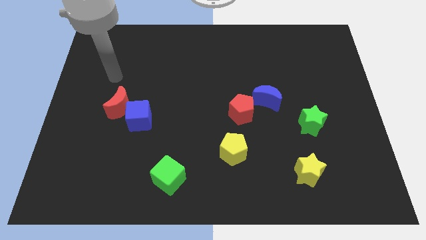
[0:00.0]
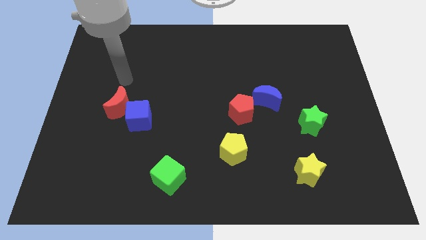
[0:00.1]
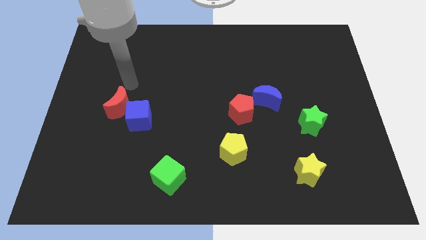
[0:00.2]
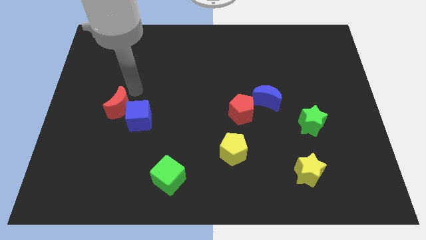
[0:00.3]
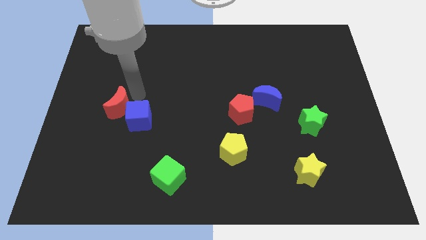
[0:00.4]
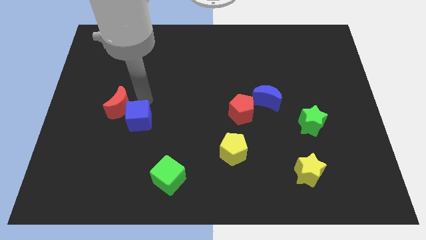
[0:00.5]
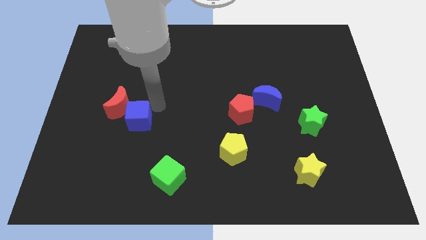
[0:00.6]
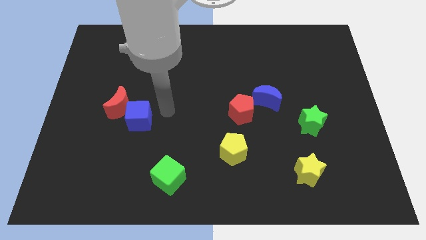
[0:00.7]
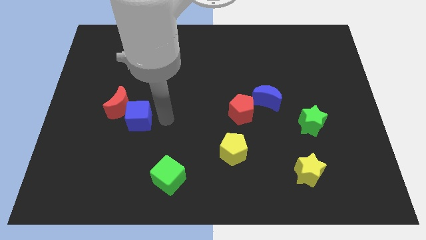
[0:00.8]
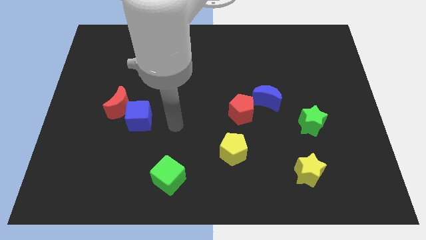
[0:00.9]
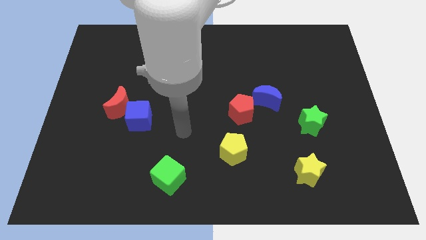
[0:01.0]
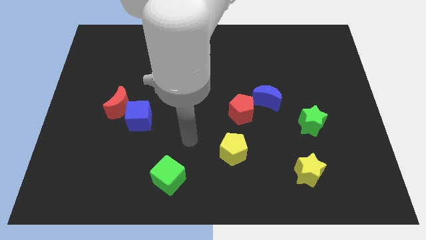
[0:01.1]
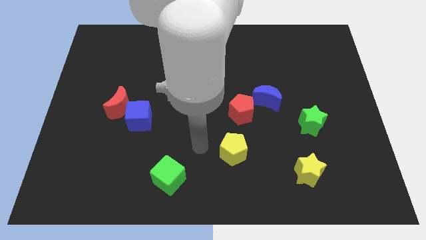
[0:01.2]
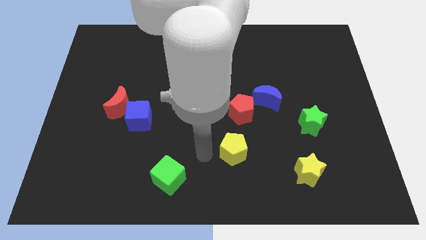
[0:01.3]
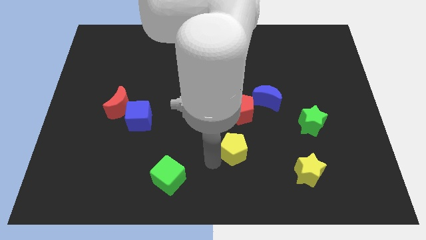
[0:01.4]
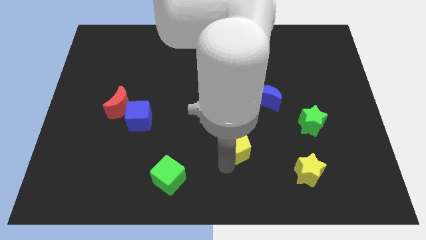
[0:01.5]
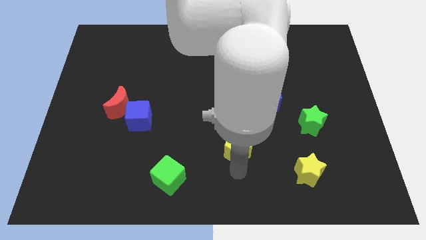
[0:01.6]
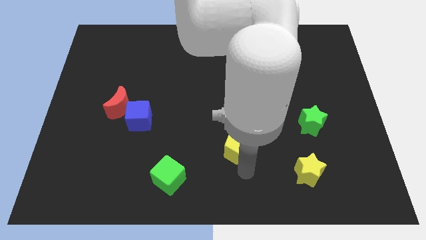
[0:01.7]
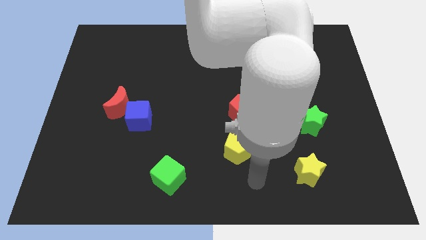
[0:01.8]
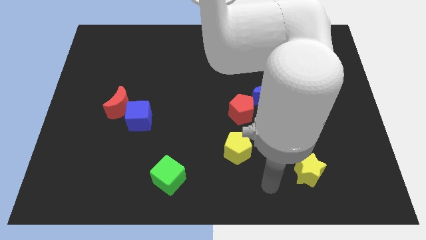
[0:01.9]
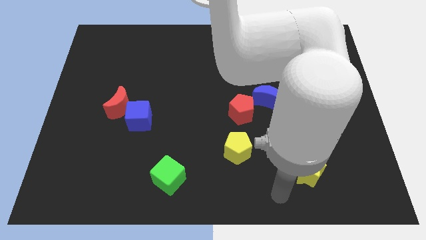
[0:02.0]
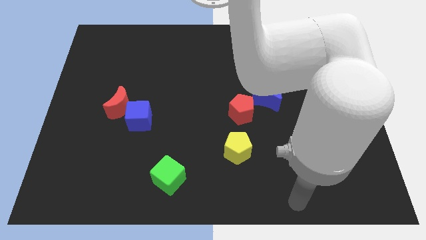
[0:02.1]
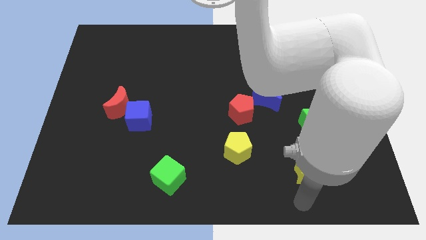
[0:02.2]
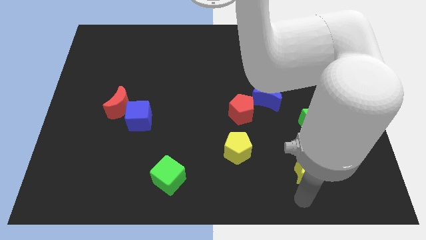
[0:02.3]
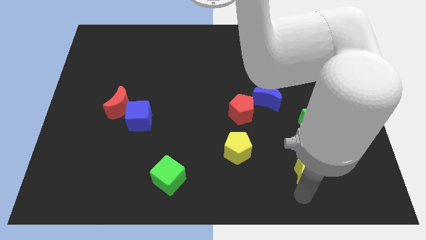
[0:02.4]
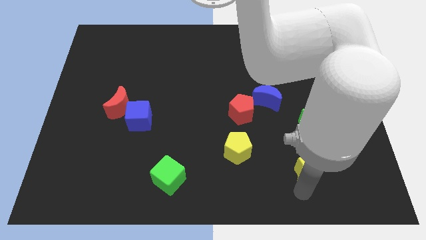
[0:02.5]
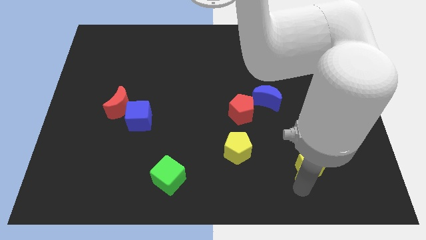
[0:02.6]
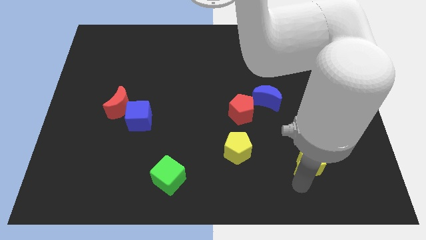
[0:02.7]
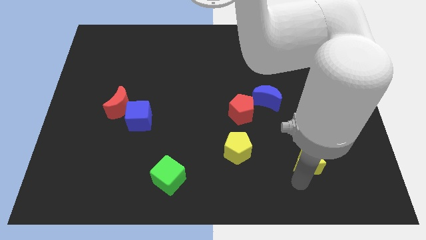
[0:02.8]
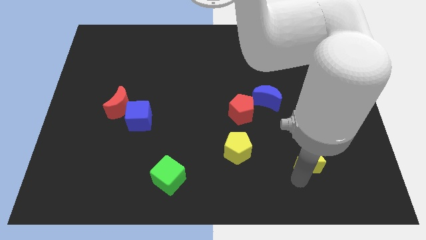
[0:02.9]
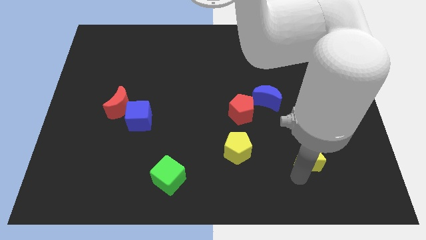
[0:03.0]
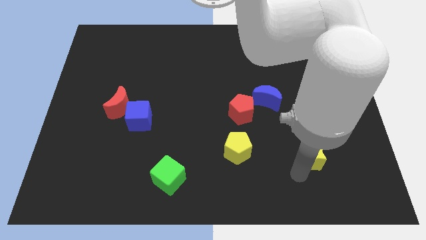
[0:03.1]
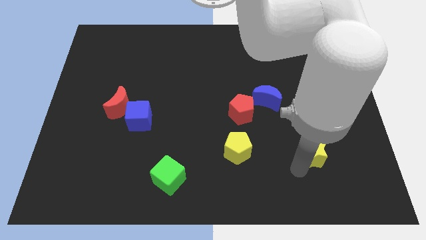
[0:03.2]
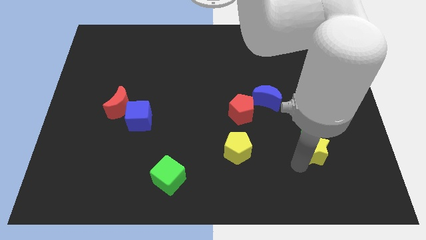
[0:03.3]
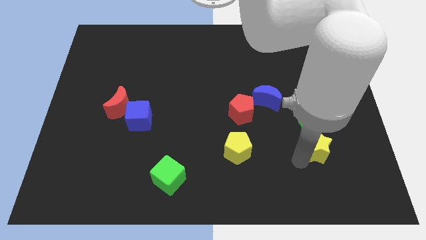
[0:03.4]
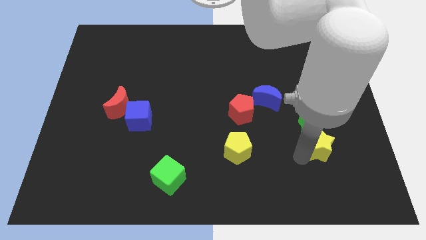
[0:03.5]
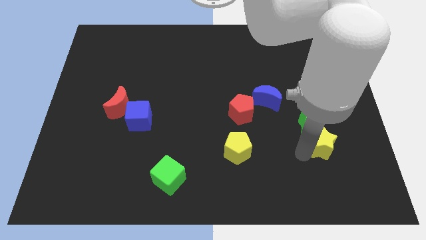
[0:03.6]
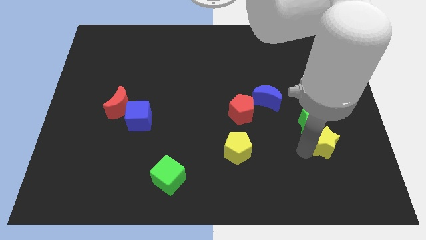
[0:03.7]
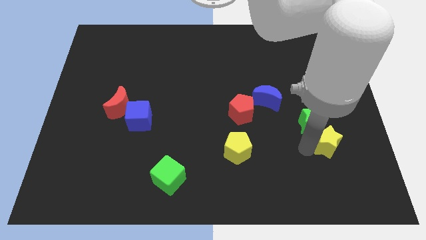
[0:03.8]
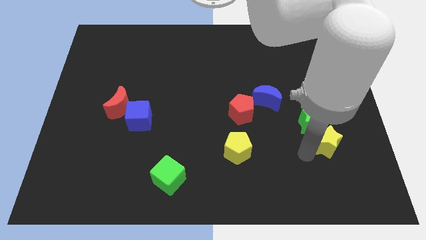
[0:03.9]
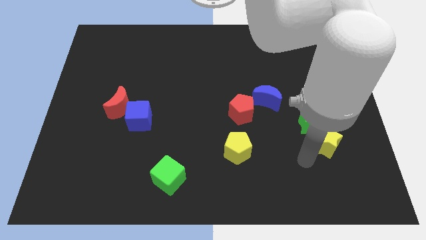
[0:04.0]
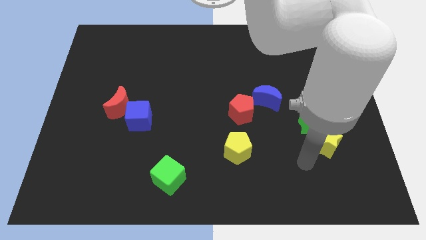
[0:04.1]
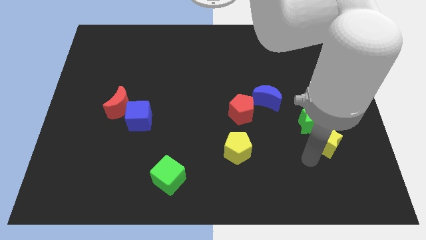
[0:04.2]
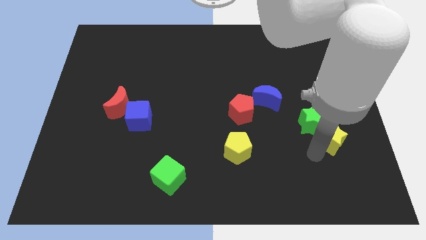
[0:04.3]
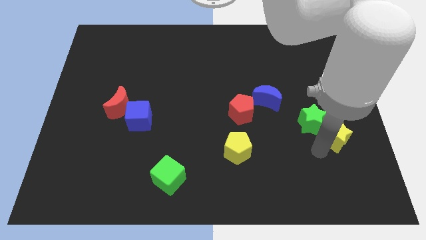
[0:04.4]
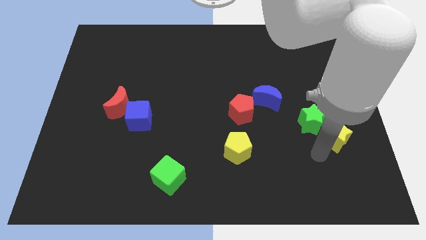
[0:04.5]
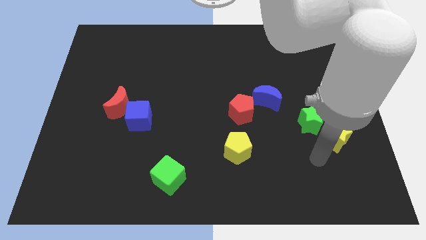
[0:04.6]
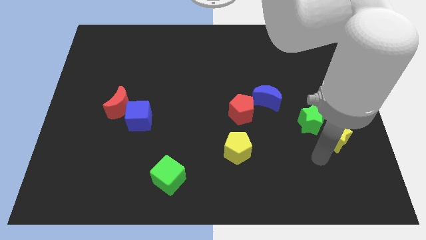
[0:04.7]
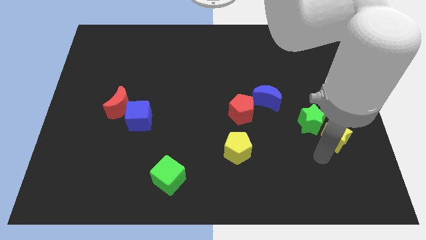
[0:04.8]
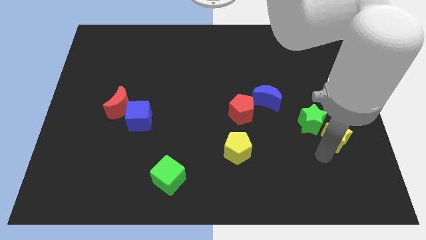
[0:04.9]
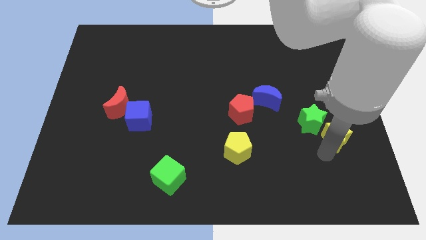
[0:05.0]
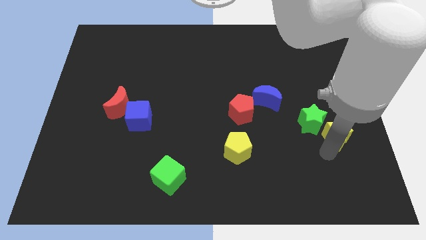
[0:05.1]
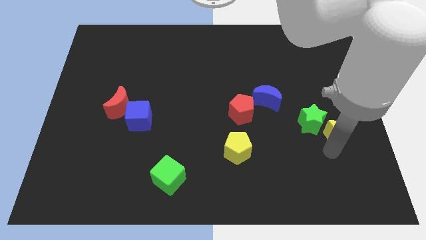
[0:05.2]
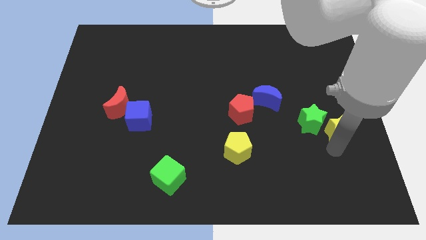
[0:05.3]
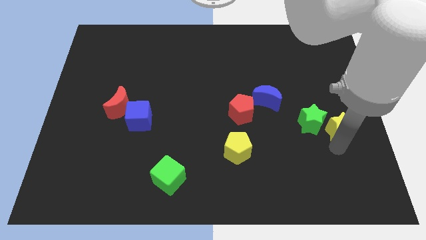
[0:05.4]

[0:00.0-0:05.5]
put the yellow star to the right side of the board

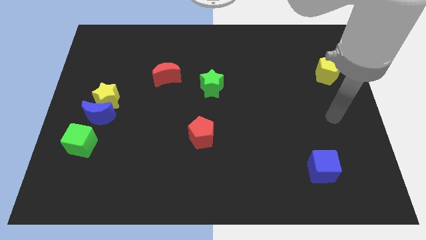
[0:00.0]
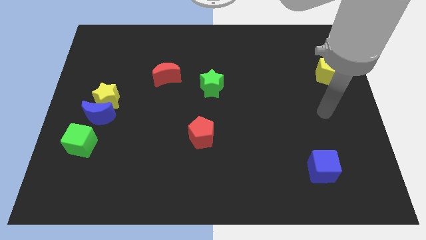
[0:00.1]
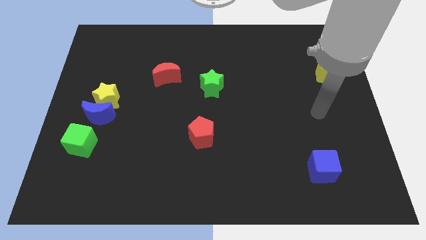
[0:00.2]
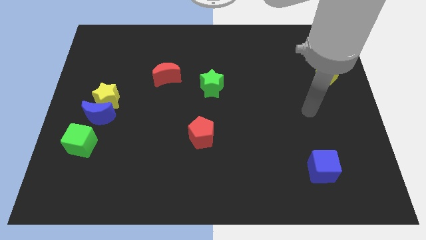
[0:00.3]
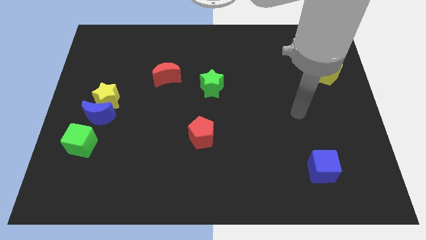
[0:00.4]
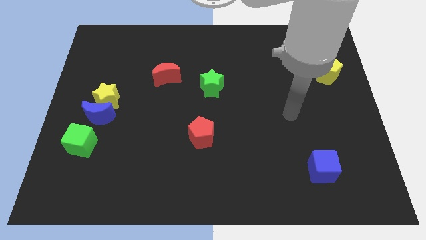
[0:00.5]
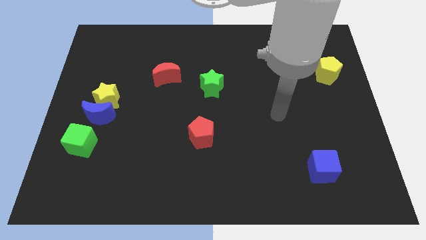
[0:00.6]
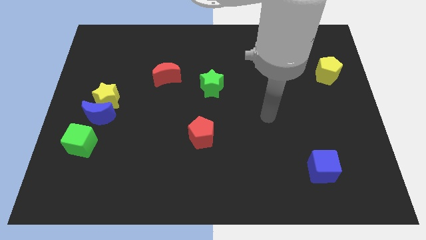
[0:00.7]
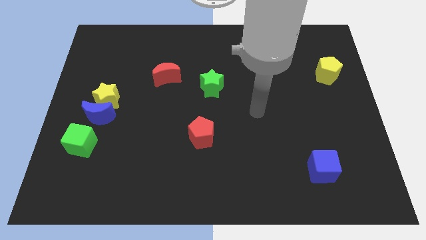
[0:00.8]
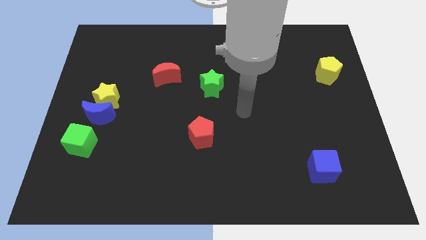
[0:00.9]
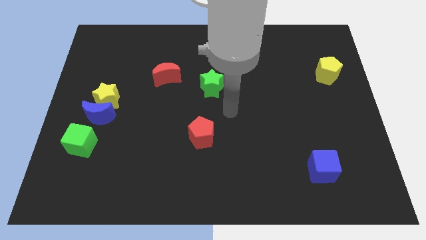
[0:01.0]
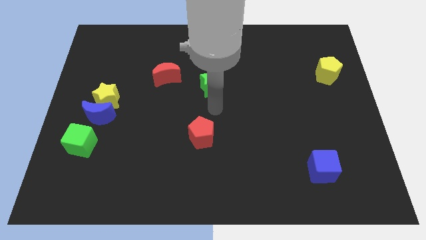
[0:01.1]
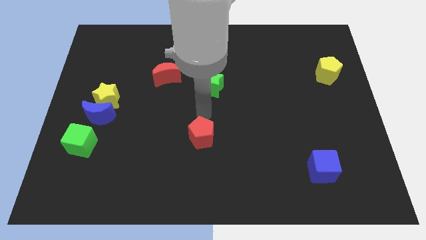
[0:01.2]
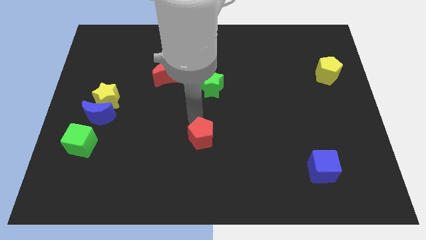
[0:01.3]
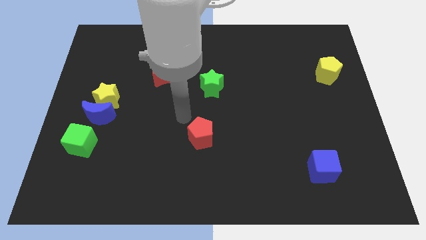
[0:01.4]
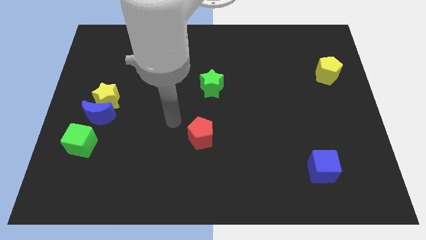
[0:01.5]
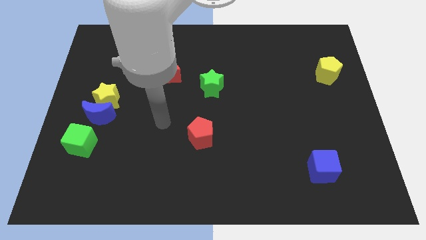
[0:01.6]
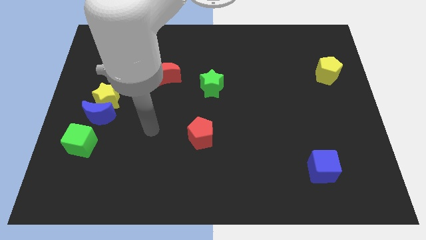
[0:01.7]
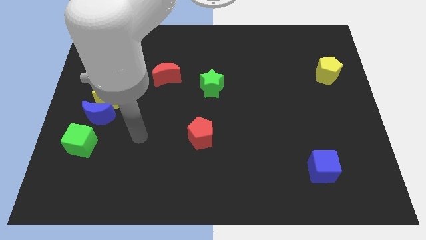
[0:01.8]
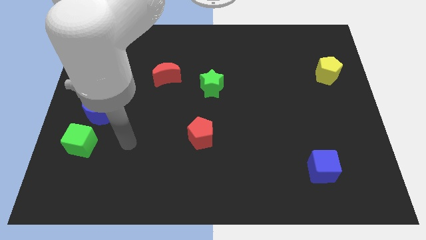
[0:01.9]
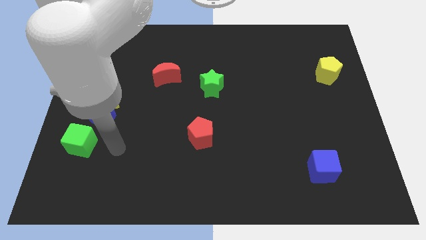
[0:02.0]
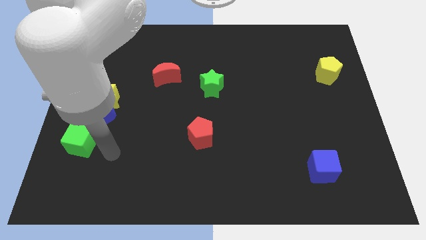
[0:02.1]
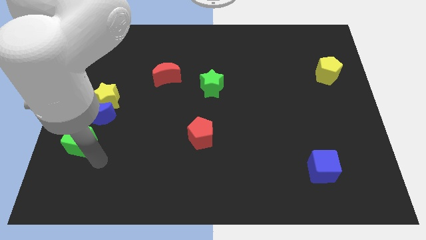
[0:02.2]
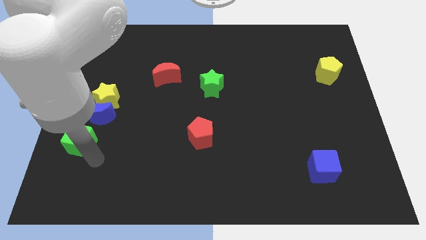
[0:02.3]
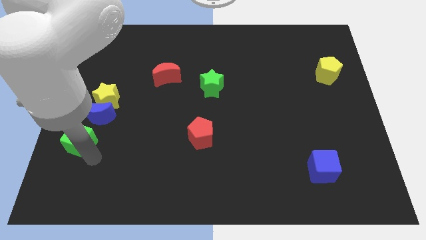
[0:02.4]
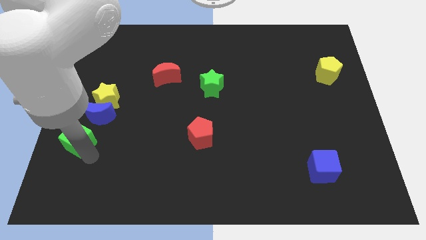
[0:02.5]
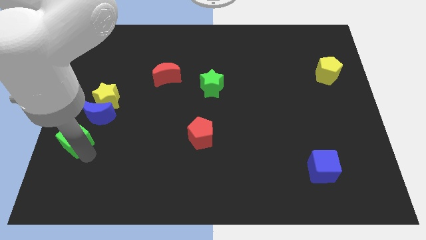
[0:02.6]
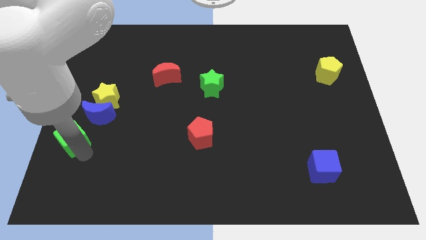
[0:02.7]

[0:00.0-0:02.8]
move the green cube to the center left
